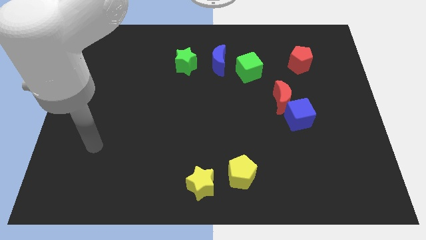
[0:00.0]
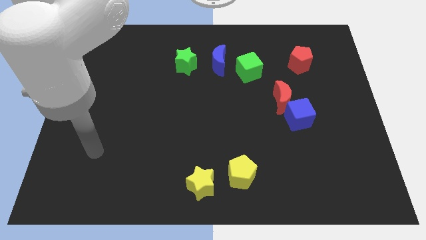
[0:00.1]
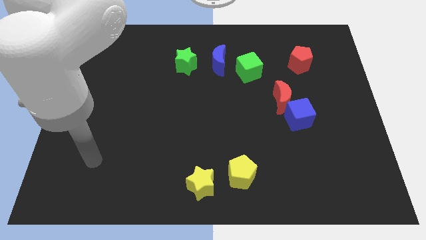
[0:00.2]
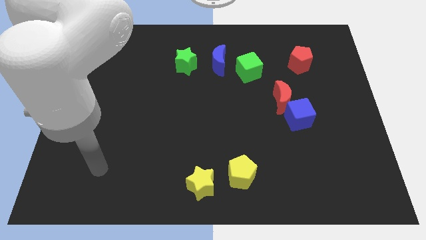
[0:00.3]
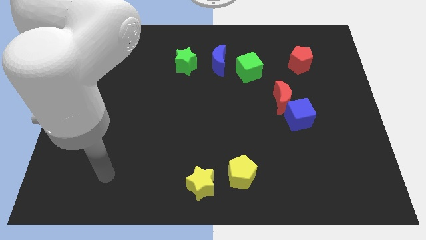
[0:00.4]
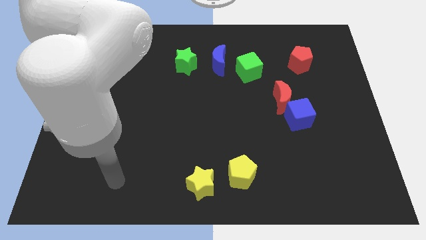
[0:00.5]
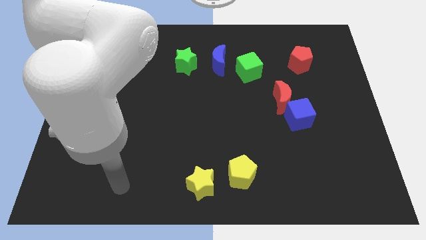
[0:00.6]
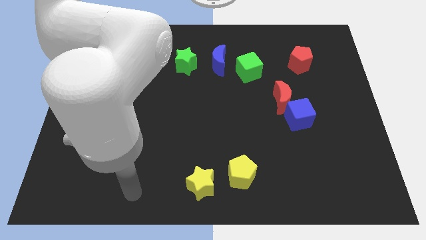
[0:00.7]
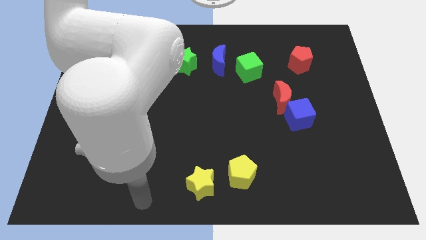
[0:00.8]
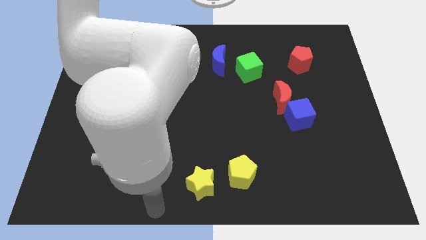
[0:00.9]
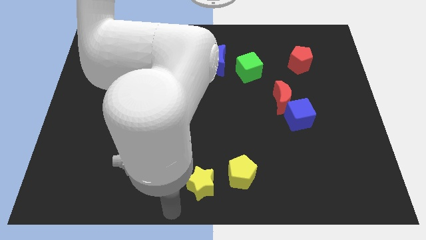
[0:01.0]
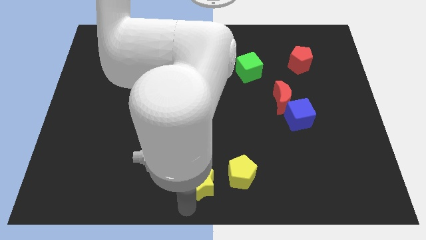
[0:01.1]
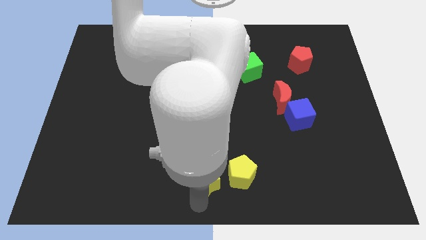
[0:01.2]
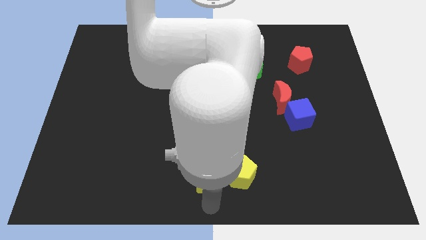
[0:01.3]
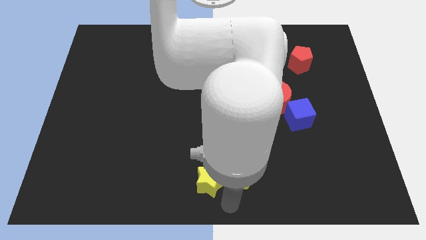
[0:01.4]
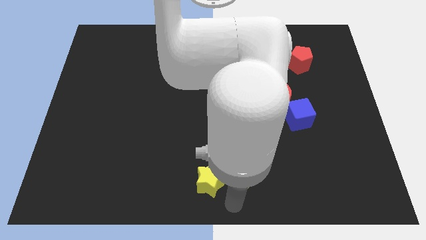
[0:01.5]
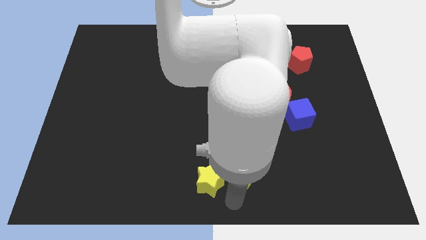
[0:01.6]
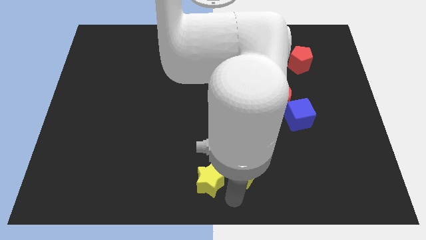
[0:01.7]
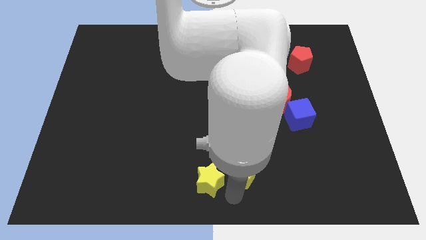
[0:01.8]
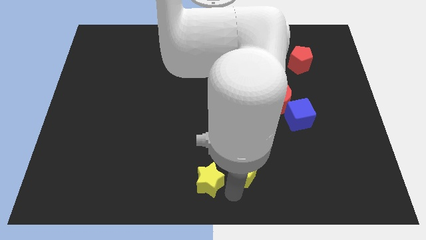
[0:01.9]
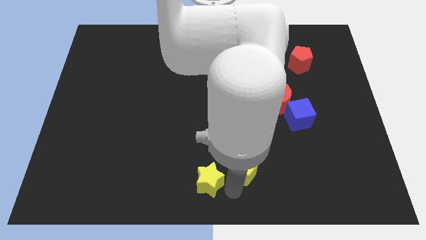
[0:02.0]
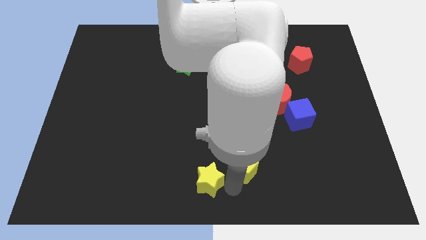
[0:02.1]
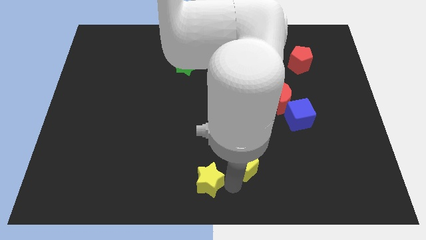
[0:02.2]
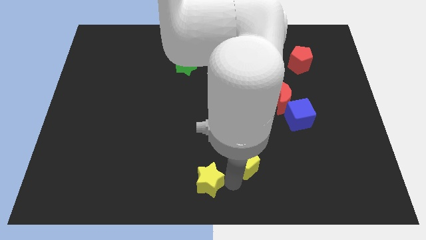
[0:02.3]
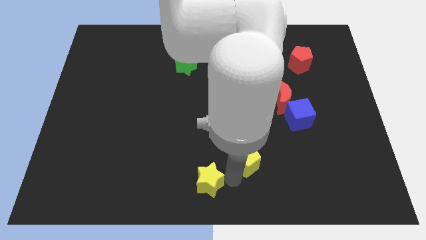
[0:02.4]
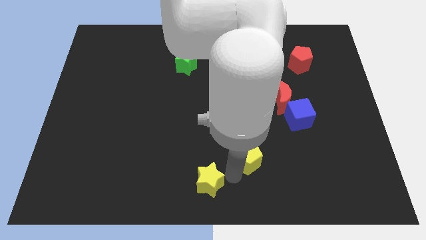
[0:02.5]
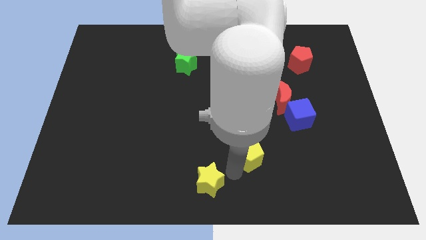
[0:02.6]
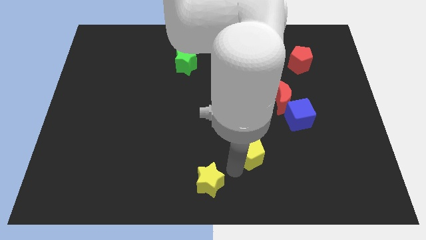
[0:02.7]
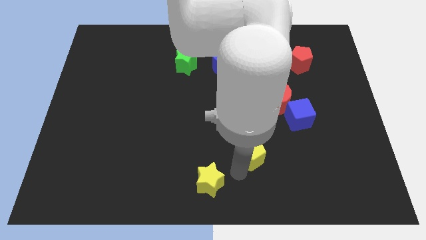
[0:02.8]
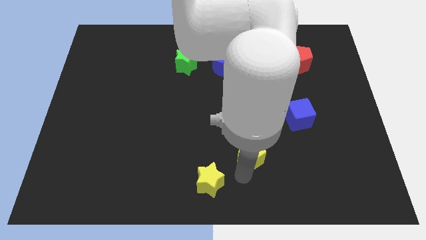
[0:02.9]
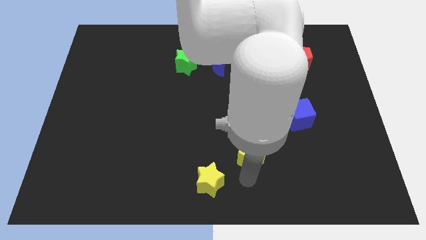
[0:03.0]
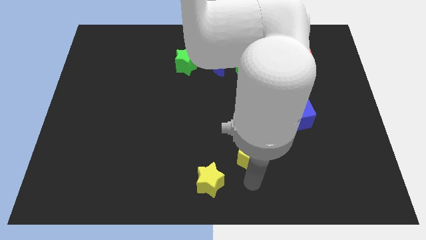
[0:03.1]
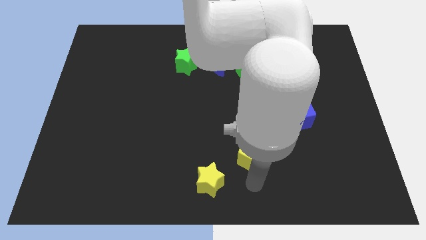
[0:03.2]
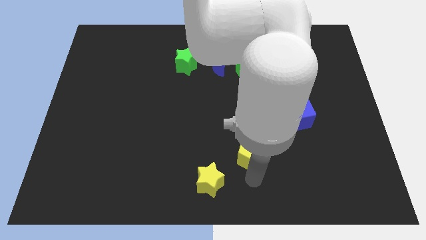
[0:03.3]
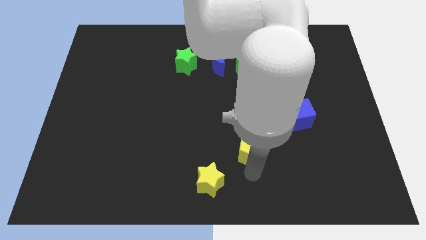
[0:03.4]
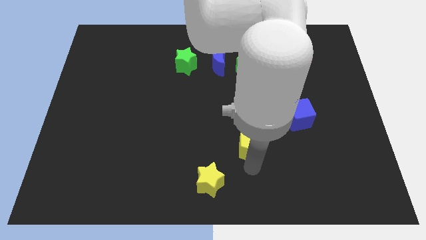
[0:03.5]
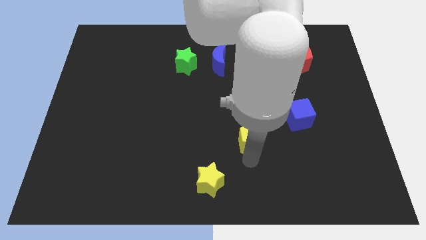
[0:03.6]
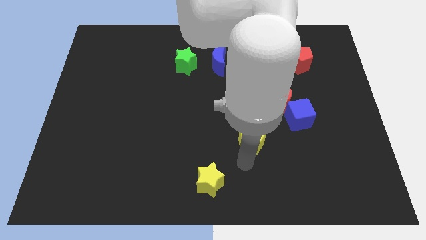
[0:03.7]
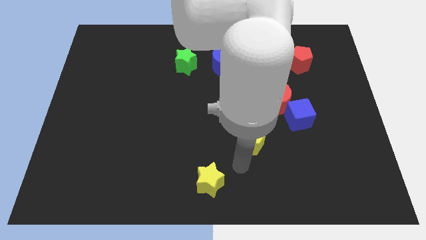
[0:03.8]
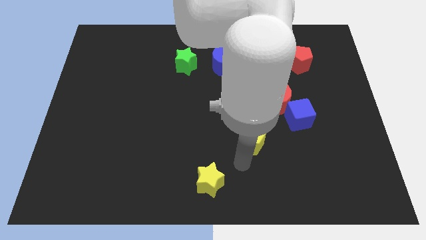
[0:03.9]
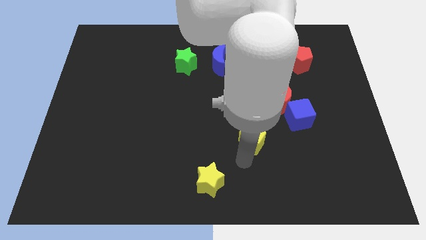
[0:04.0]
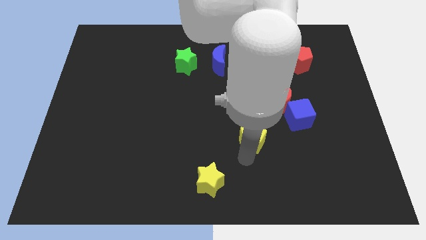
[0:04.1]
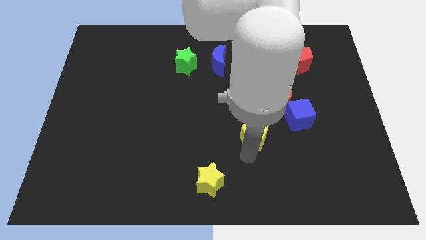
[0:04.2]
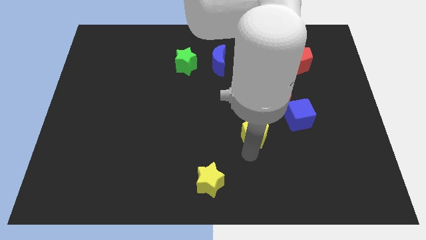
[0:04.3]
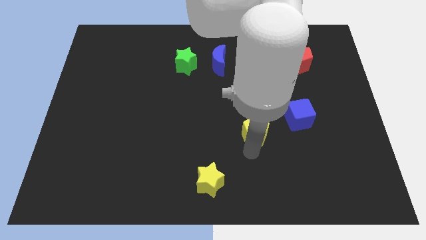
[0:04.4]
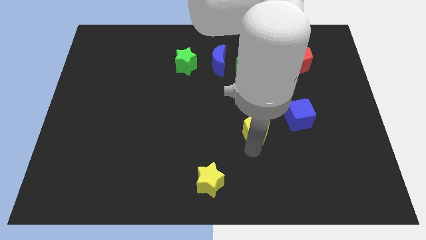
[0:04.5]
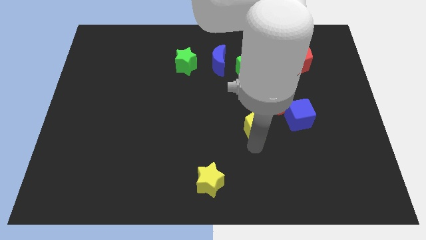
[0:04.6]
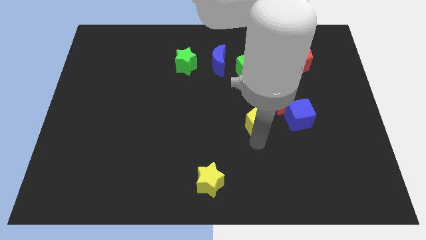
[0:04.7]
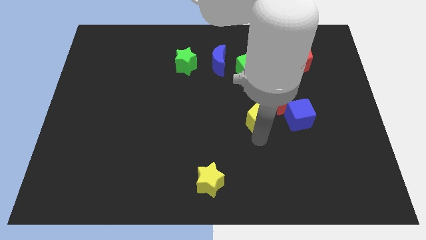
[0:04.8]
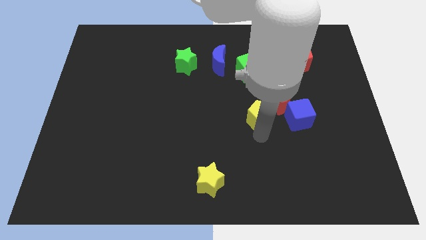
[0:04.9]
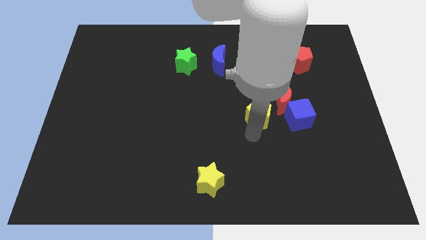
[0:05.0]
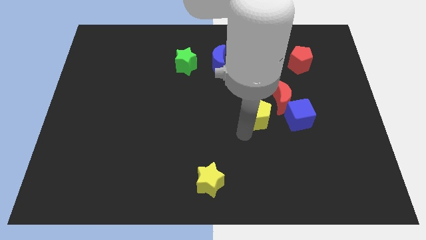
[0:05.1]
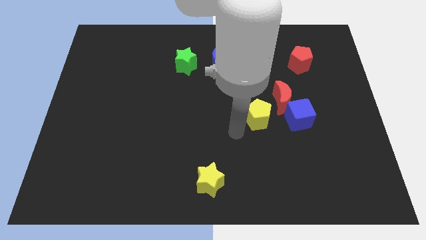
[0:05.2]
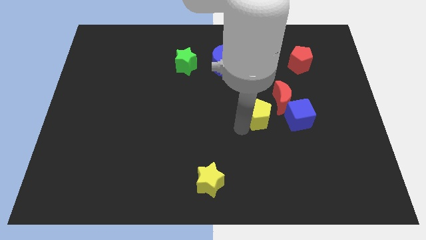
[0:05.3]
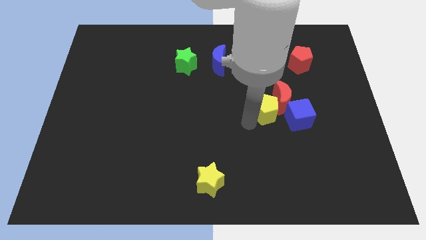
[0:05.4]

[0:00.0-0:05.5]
put the yellow pentagon next to the red moon

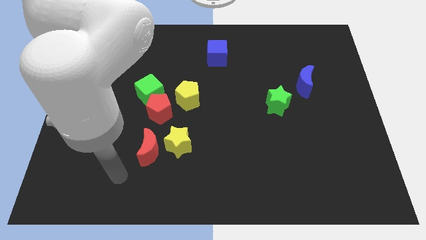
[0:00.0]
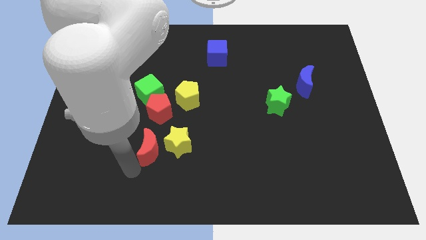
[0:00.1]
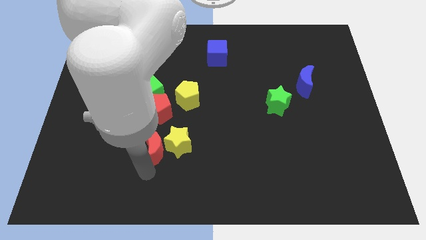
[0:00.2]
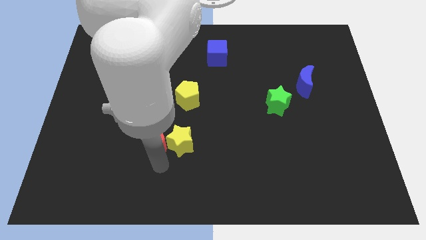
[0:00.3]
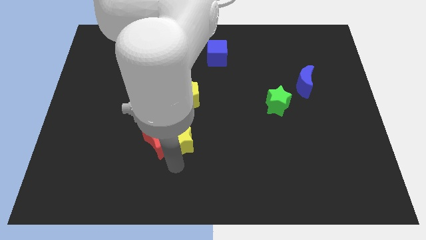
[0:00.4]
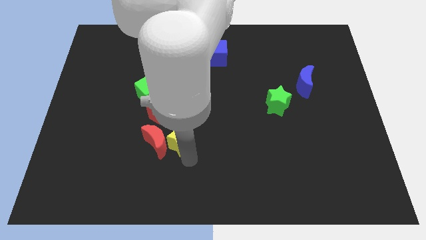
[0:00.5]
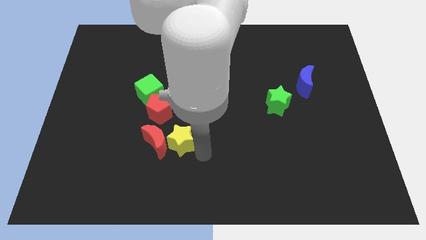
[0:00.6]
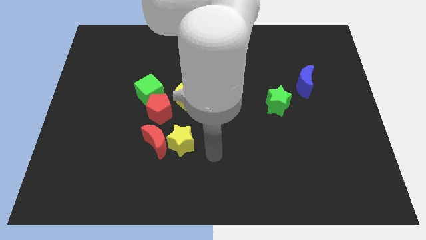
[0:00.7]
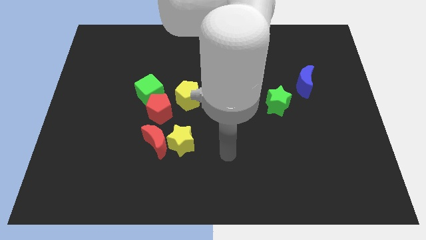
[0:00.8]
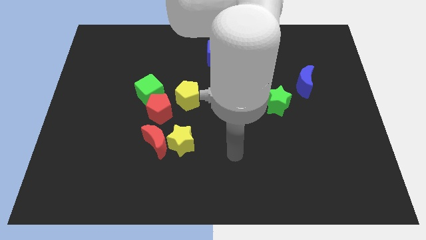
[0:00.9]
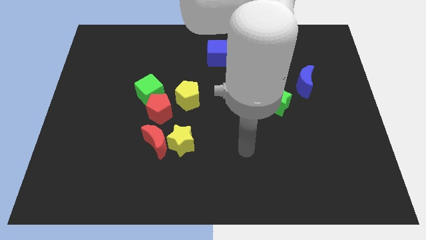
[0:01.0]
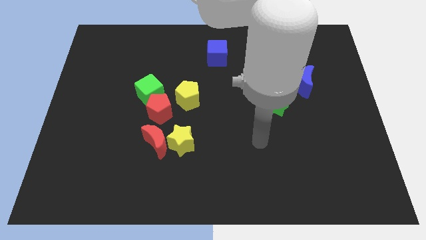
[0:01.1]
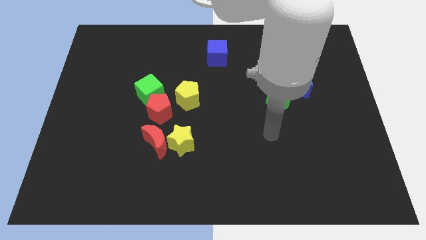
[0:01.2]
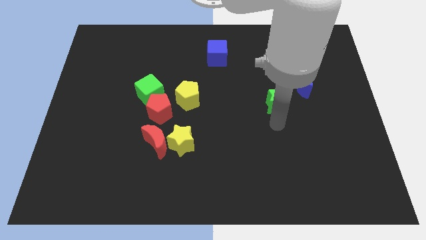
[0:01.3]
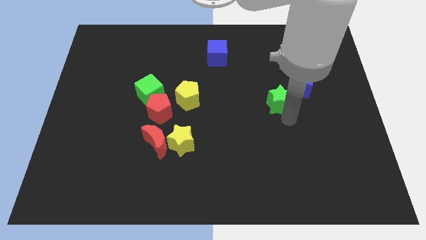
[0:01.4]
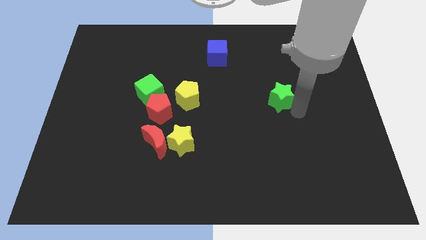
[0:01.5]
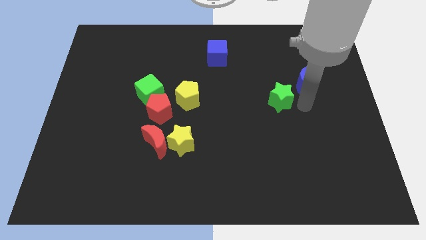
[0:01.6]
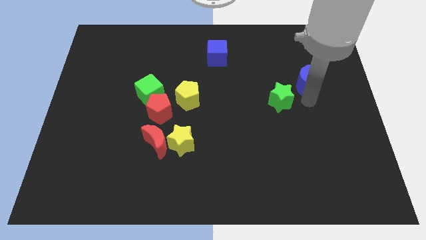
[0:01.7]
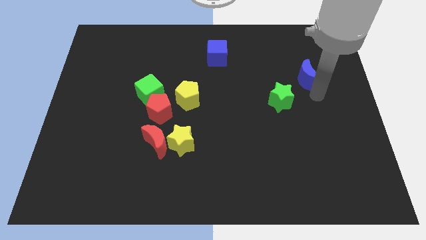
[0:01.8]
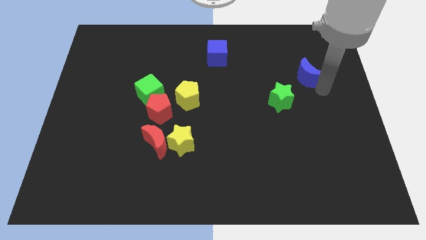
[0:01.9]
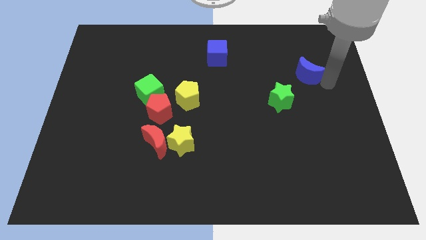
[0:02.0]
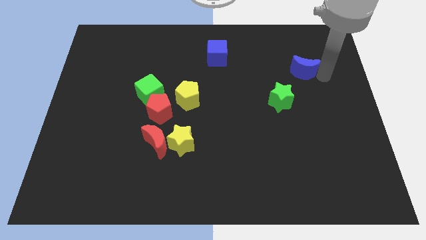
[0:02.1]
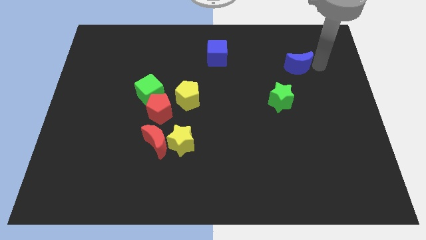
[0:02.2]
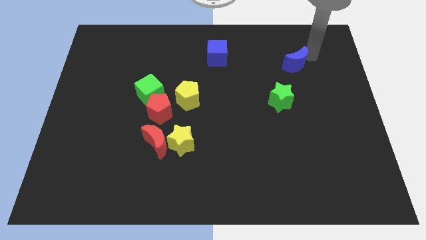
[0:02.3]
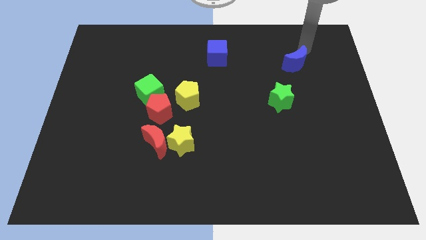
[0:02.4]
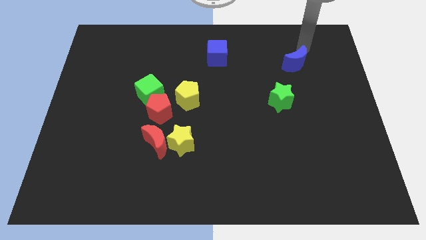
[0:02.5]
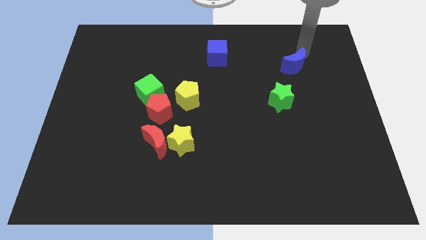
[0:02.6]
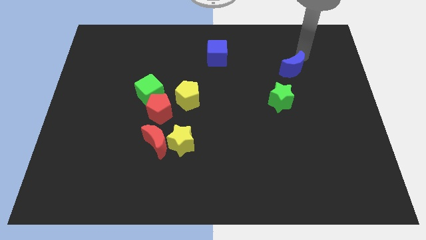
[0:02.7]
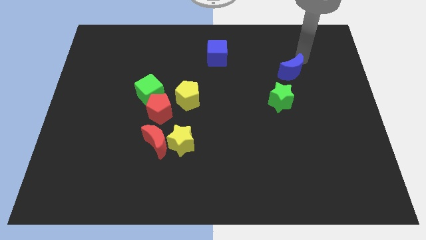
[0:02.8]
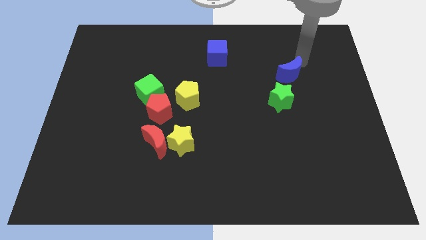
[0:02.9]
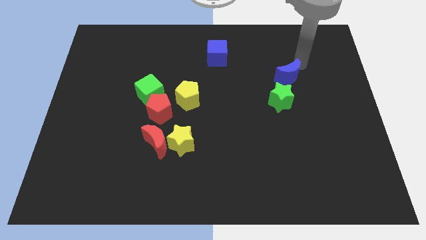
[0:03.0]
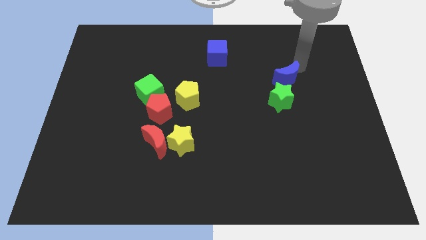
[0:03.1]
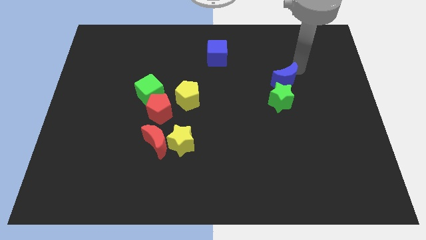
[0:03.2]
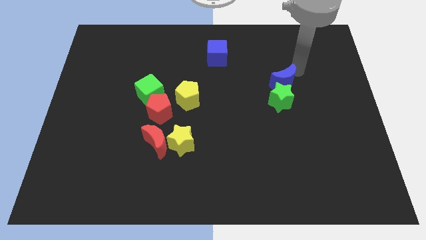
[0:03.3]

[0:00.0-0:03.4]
put the blue moon to the green star
